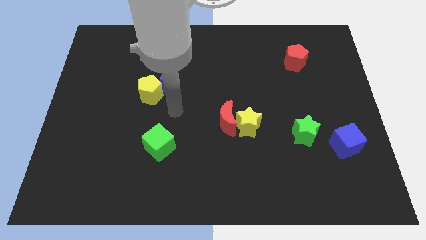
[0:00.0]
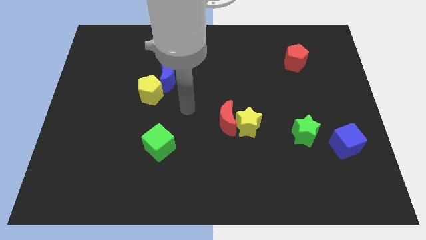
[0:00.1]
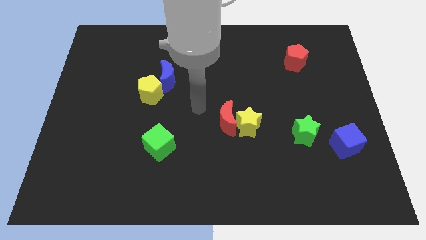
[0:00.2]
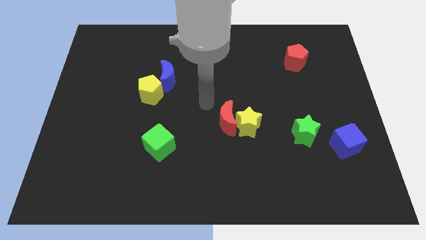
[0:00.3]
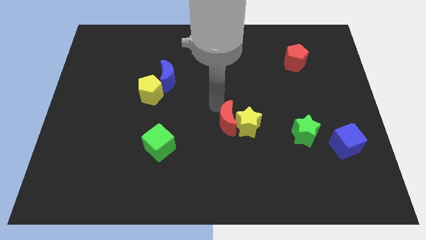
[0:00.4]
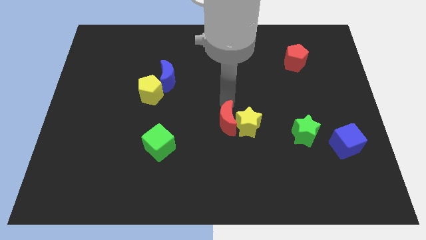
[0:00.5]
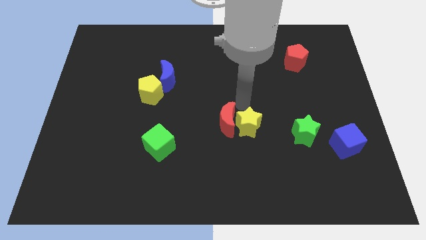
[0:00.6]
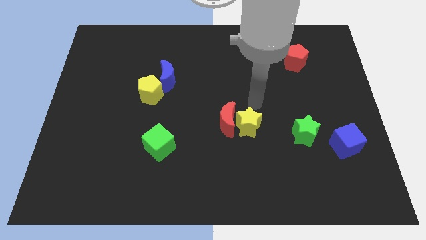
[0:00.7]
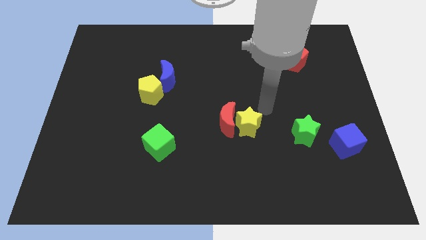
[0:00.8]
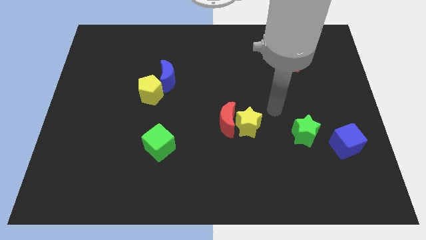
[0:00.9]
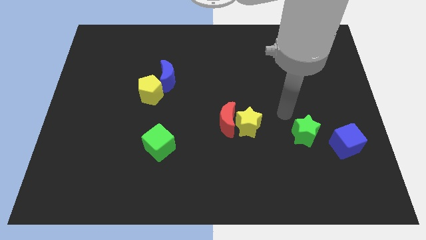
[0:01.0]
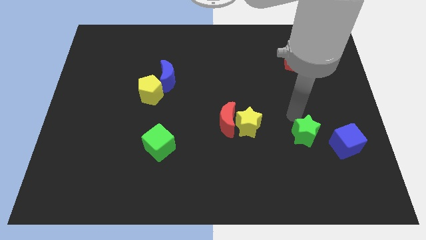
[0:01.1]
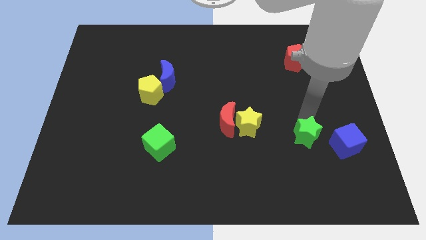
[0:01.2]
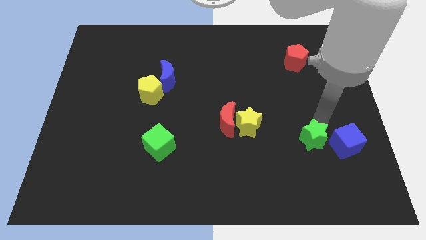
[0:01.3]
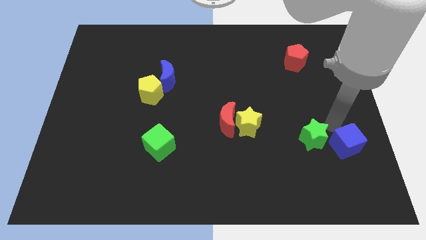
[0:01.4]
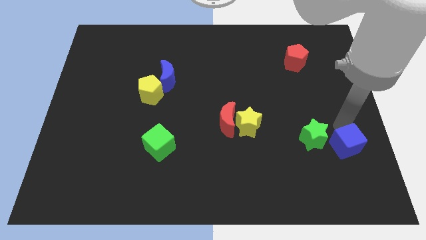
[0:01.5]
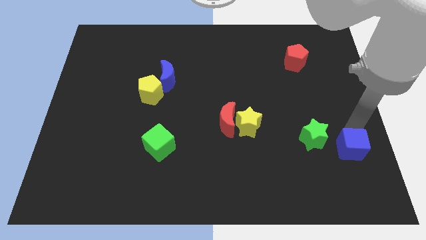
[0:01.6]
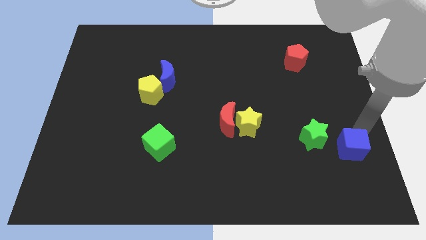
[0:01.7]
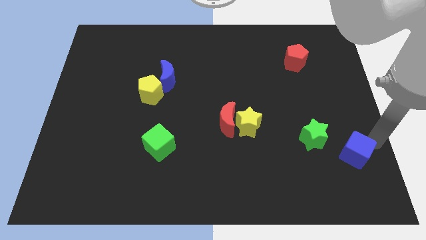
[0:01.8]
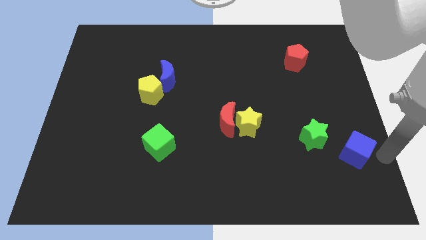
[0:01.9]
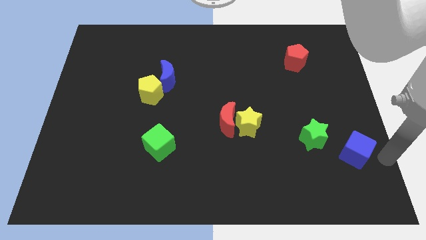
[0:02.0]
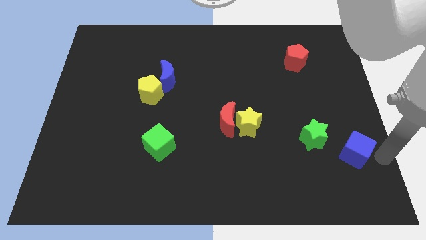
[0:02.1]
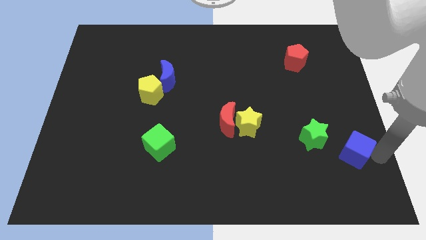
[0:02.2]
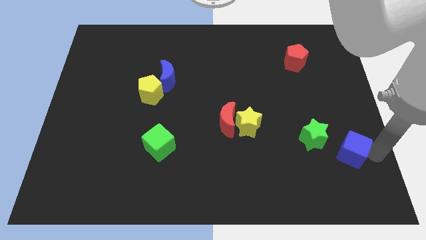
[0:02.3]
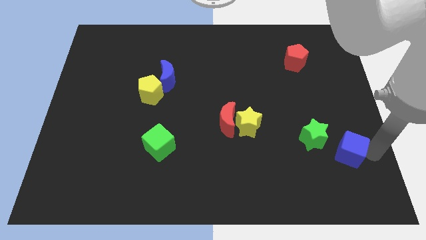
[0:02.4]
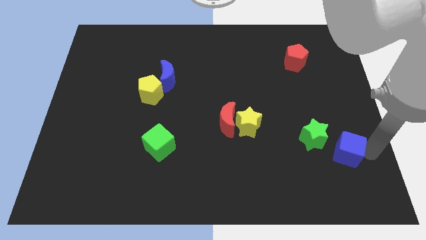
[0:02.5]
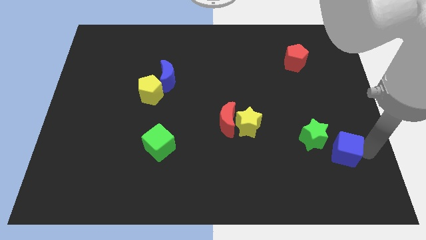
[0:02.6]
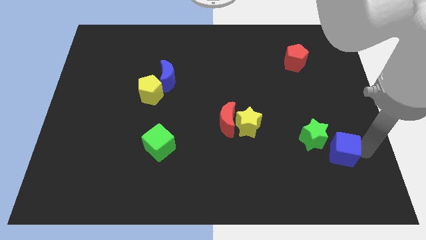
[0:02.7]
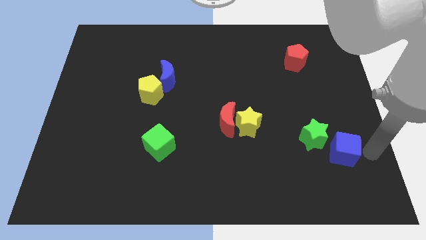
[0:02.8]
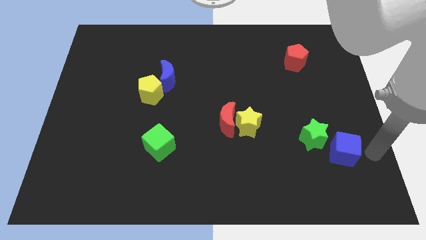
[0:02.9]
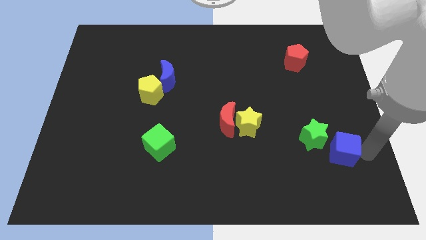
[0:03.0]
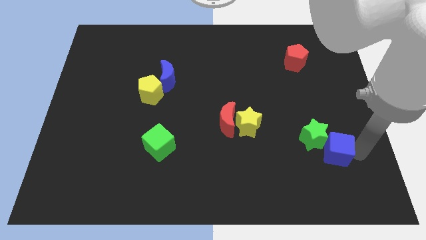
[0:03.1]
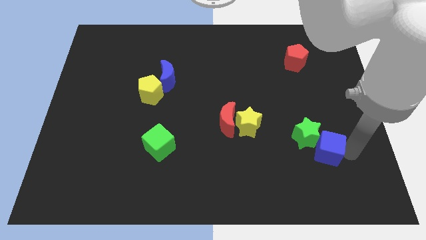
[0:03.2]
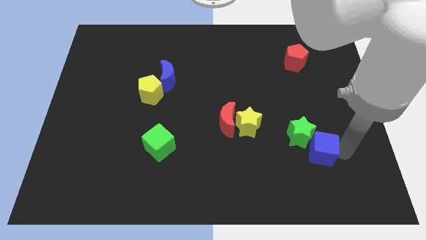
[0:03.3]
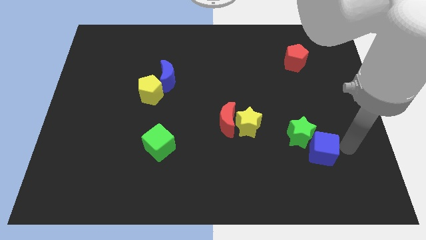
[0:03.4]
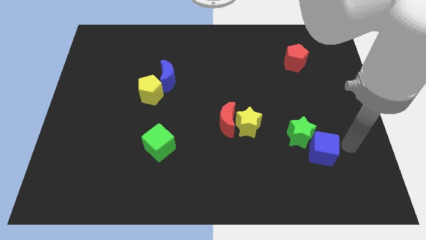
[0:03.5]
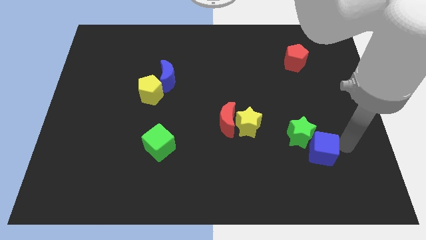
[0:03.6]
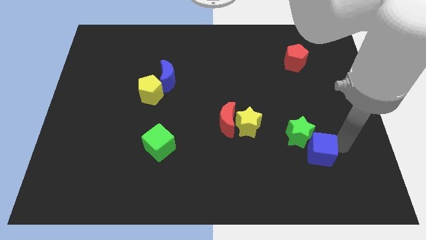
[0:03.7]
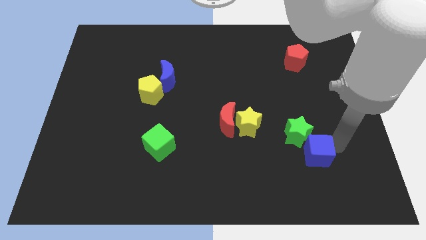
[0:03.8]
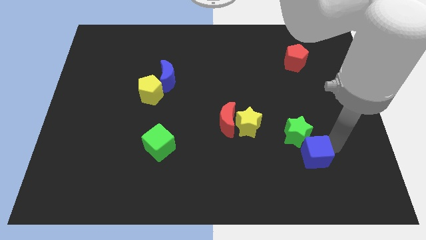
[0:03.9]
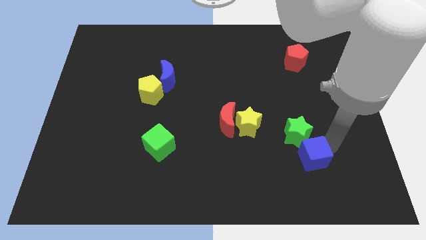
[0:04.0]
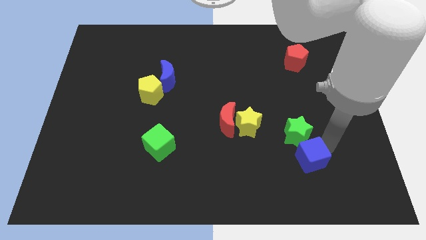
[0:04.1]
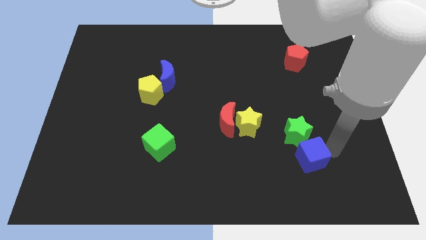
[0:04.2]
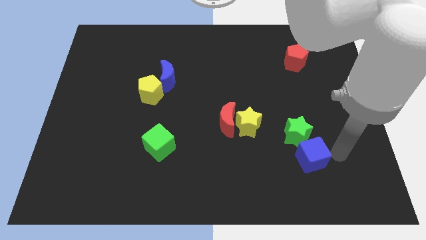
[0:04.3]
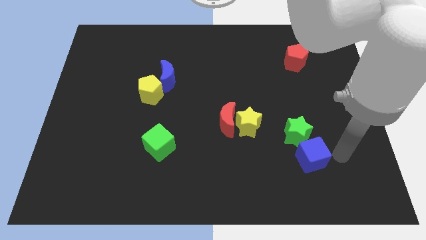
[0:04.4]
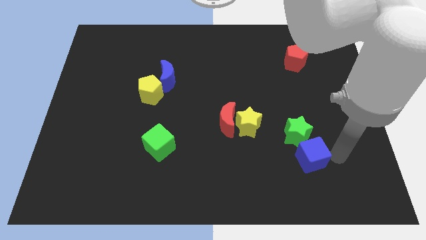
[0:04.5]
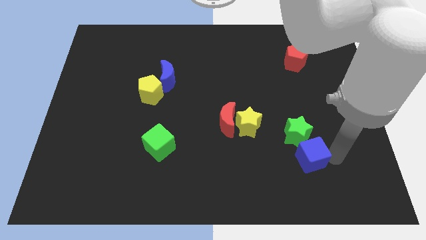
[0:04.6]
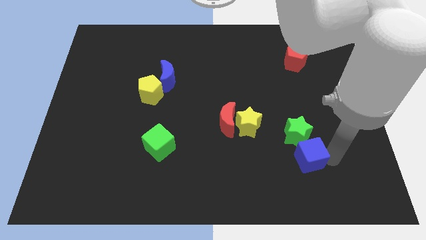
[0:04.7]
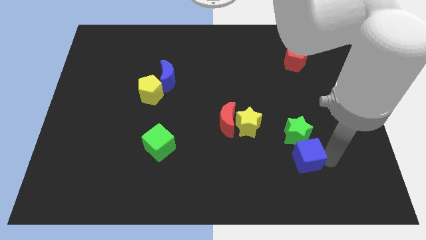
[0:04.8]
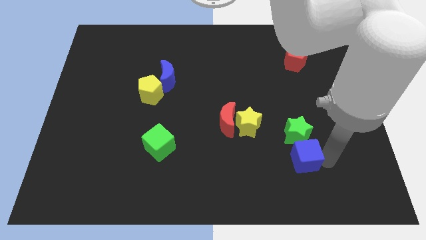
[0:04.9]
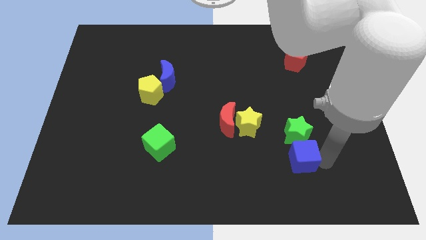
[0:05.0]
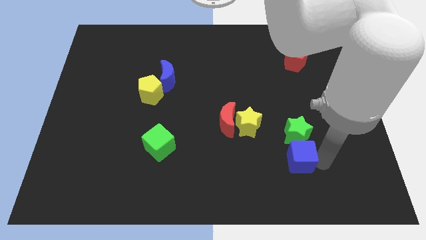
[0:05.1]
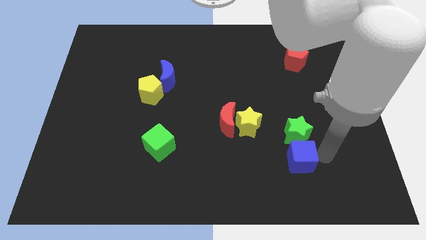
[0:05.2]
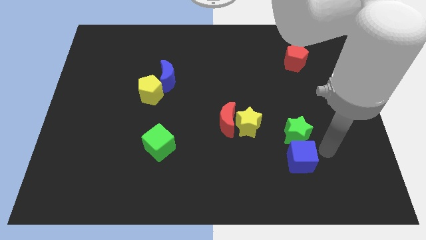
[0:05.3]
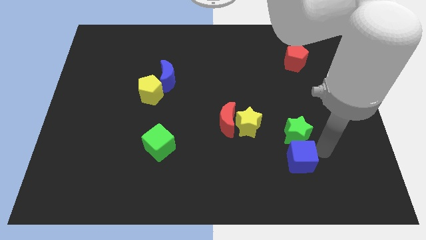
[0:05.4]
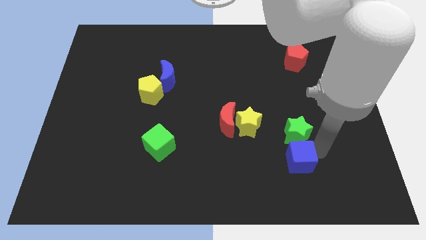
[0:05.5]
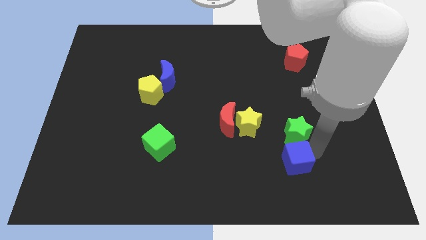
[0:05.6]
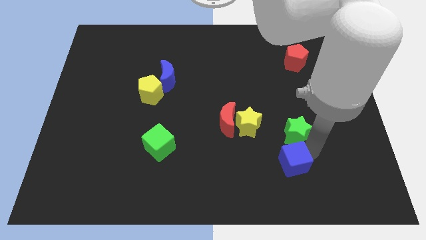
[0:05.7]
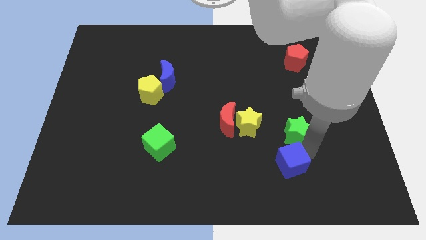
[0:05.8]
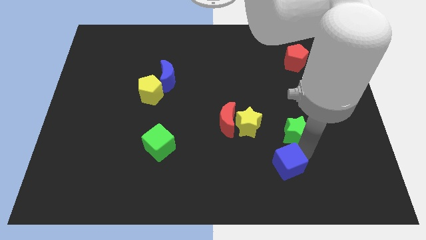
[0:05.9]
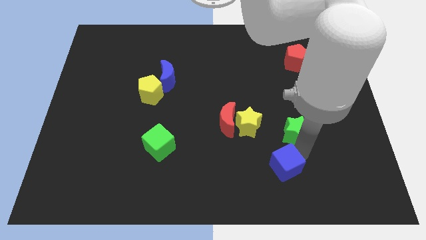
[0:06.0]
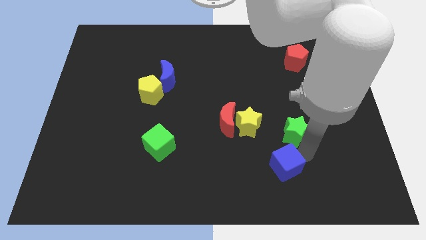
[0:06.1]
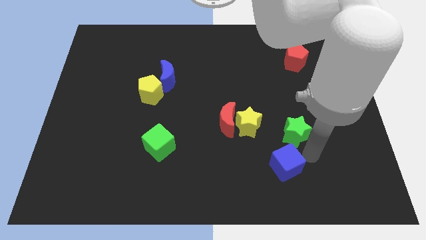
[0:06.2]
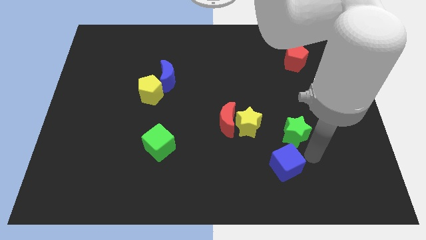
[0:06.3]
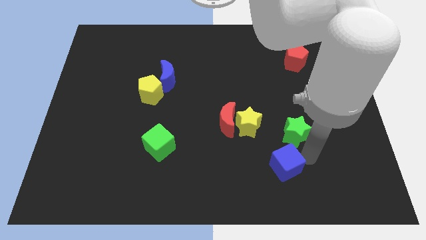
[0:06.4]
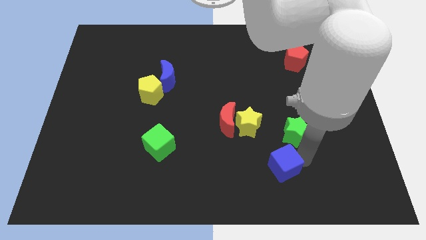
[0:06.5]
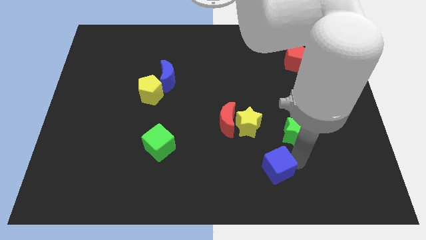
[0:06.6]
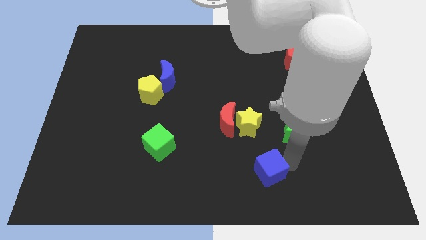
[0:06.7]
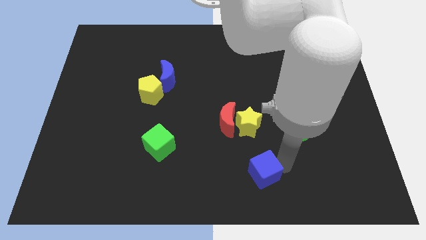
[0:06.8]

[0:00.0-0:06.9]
push the blue cube to the bottom
